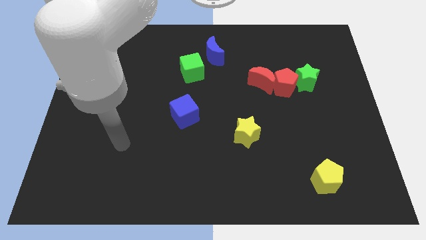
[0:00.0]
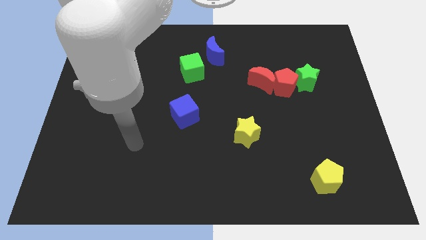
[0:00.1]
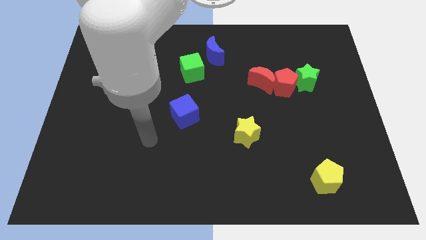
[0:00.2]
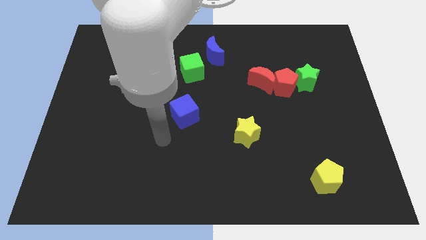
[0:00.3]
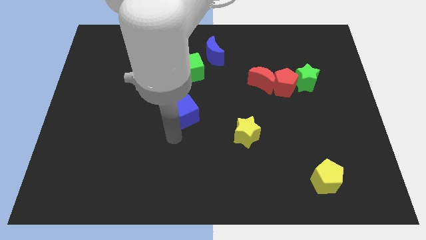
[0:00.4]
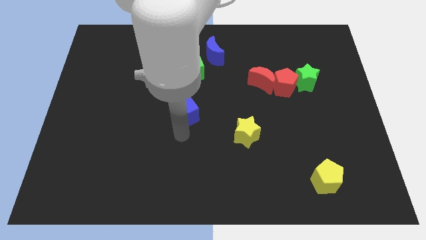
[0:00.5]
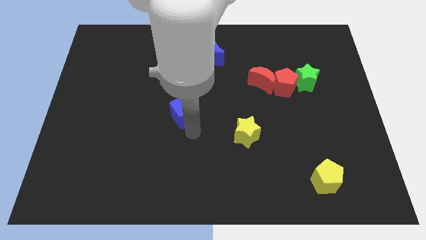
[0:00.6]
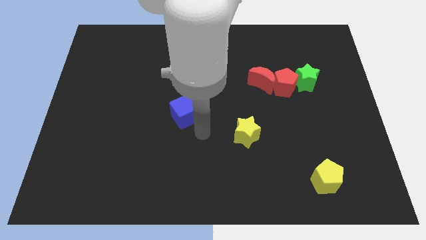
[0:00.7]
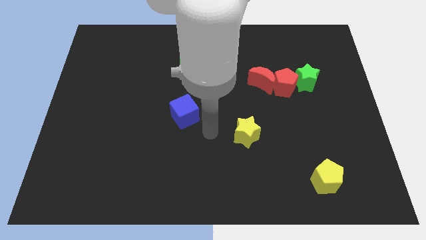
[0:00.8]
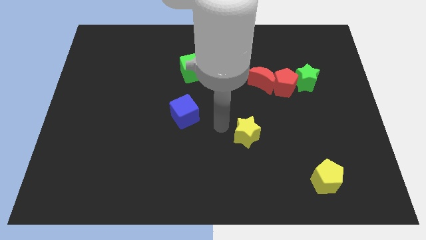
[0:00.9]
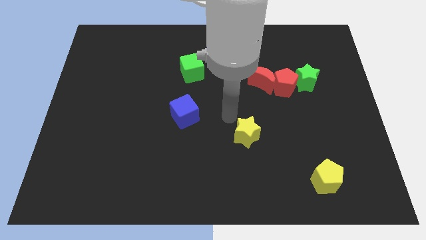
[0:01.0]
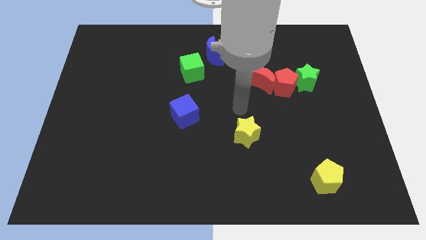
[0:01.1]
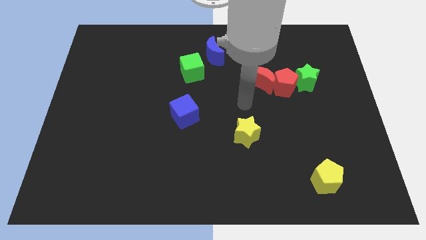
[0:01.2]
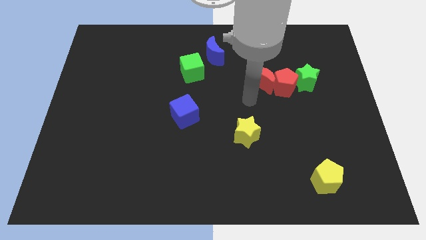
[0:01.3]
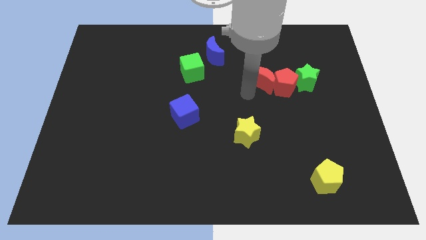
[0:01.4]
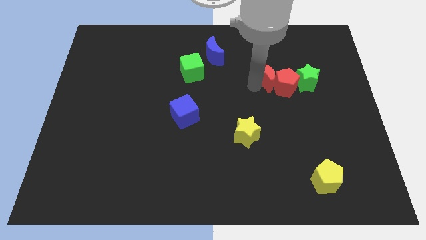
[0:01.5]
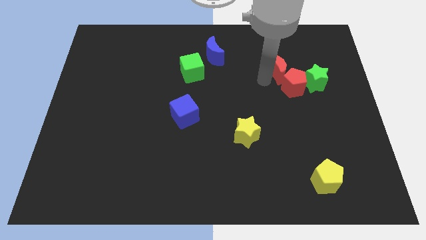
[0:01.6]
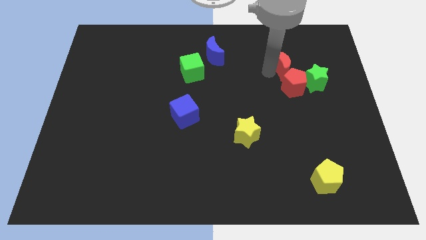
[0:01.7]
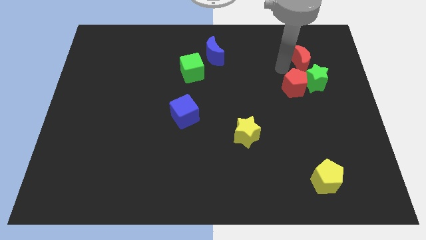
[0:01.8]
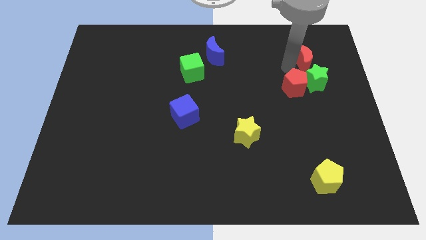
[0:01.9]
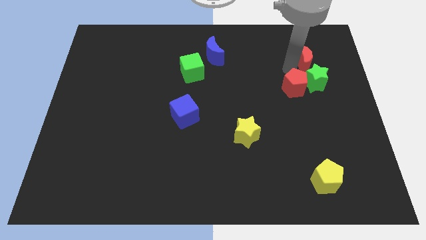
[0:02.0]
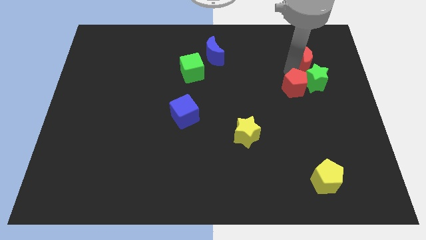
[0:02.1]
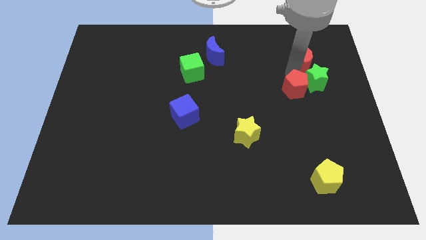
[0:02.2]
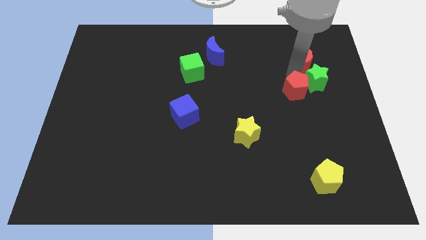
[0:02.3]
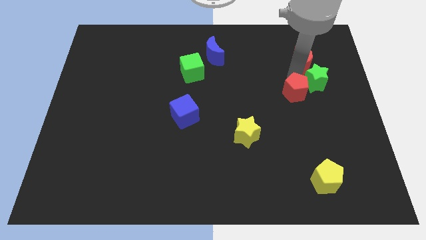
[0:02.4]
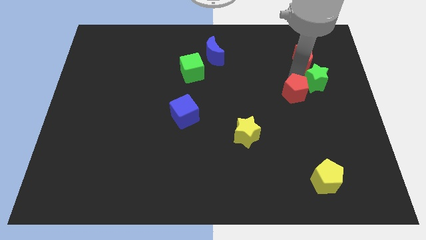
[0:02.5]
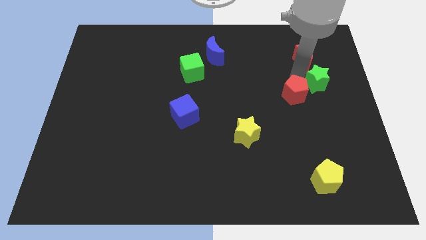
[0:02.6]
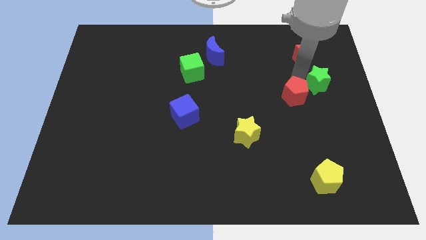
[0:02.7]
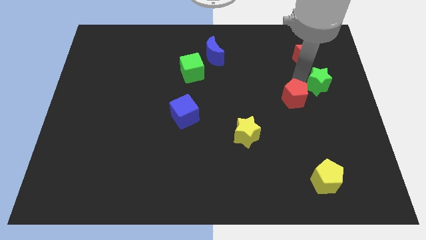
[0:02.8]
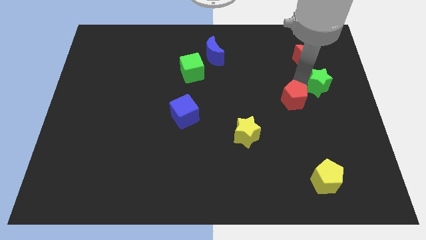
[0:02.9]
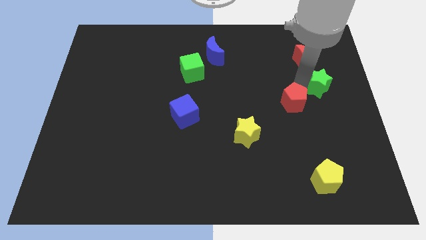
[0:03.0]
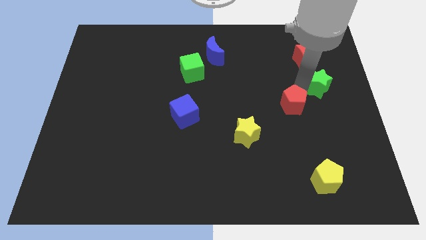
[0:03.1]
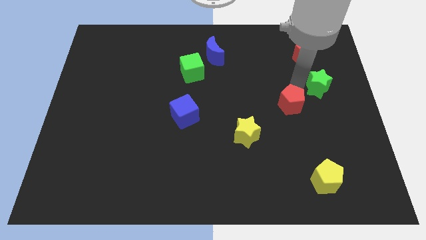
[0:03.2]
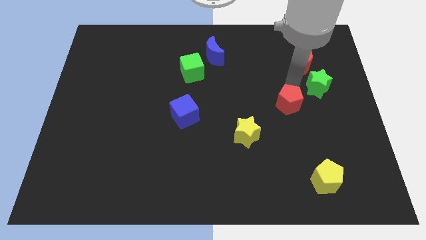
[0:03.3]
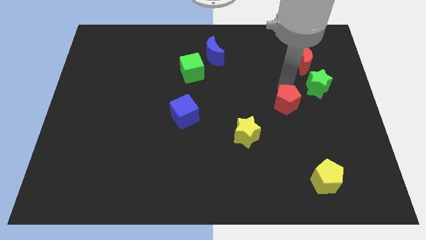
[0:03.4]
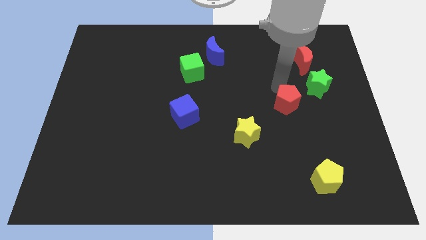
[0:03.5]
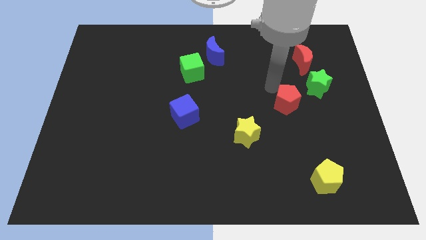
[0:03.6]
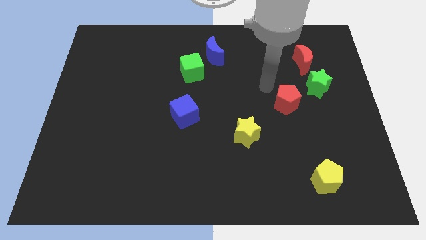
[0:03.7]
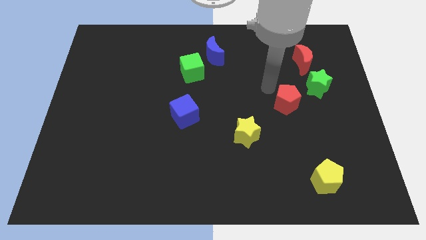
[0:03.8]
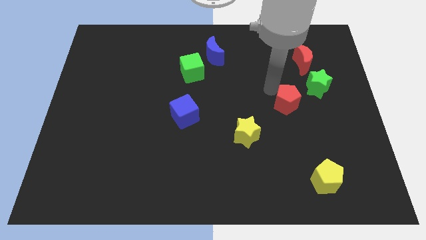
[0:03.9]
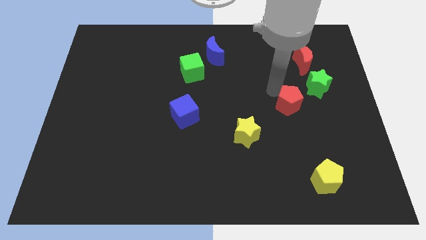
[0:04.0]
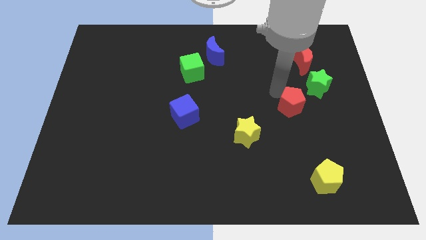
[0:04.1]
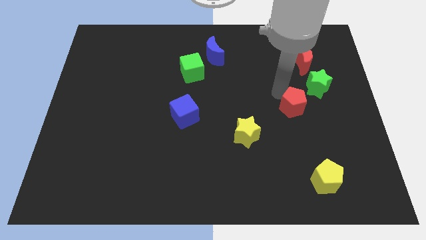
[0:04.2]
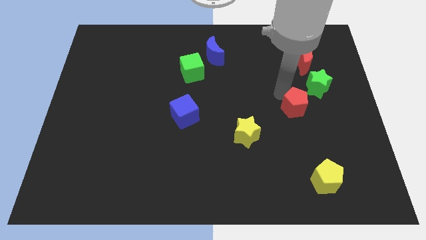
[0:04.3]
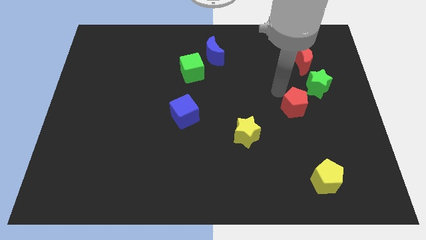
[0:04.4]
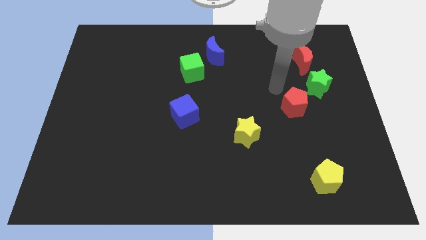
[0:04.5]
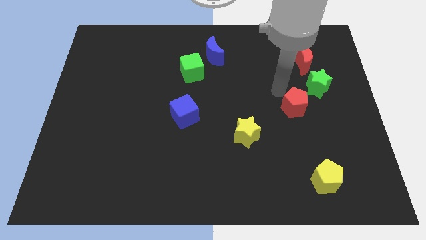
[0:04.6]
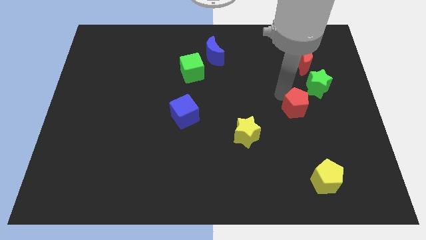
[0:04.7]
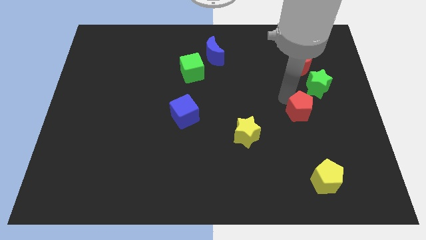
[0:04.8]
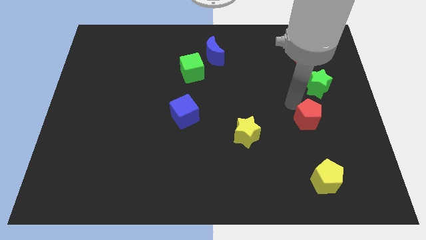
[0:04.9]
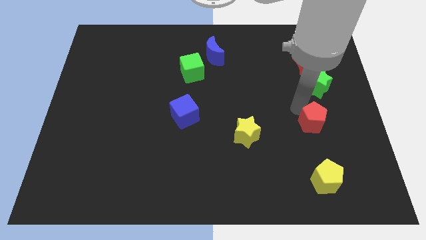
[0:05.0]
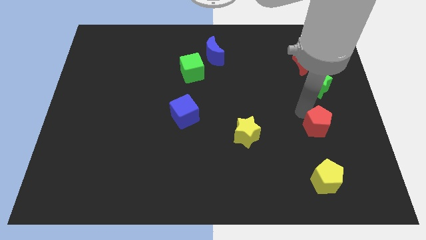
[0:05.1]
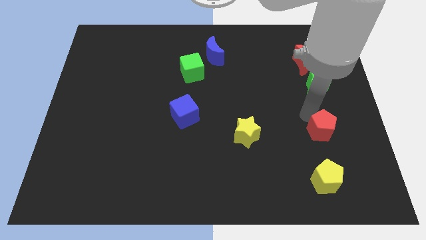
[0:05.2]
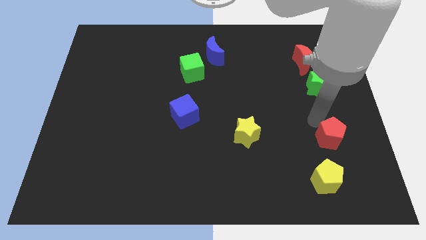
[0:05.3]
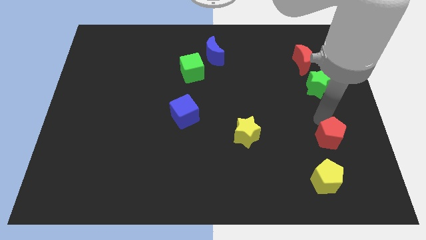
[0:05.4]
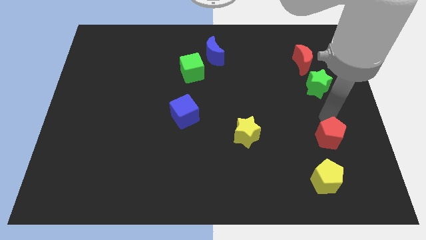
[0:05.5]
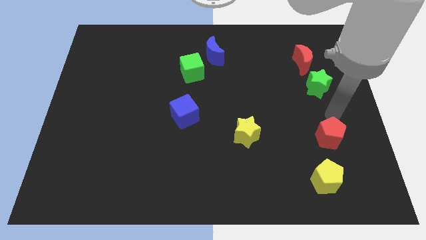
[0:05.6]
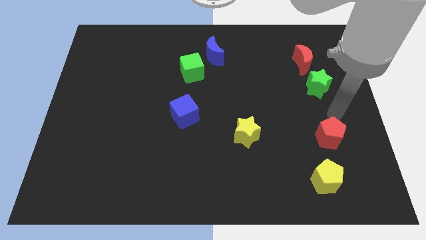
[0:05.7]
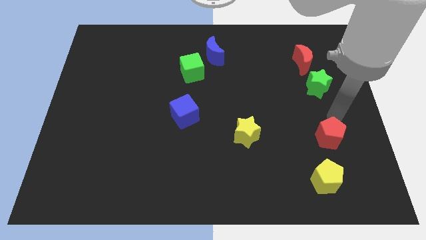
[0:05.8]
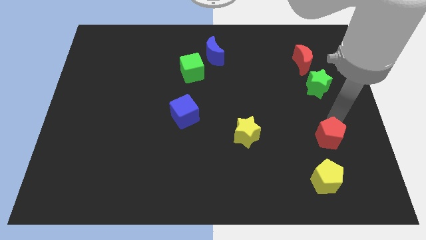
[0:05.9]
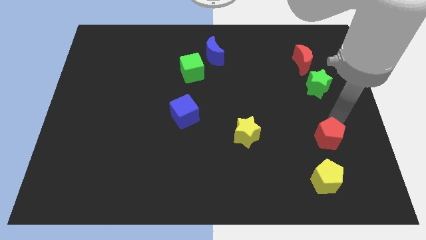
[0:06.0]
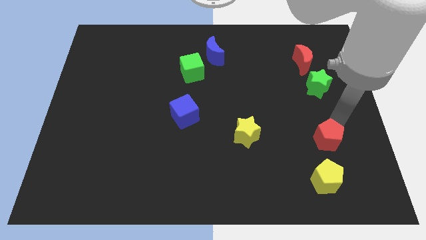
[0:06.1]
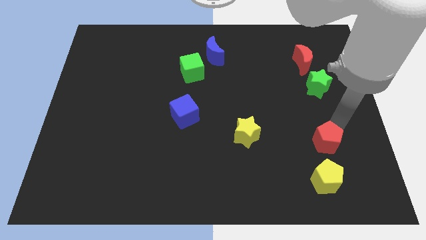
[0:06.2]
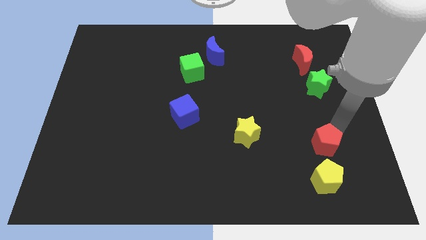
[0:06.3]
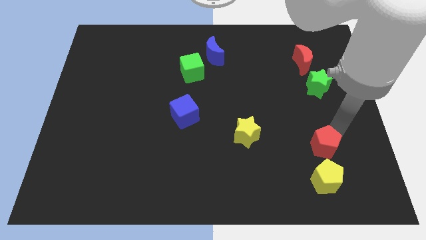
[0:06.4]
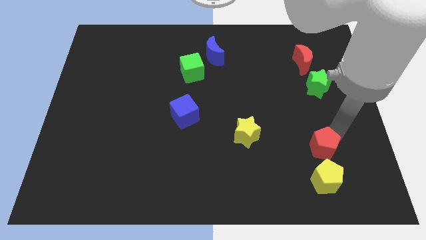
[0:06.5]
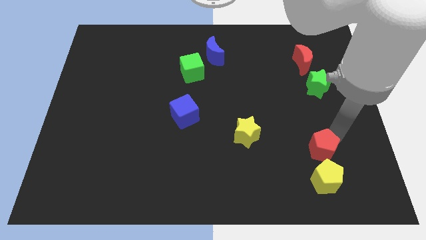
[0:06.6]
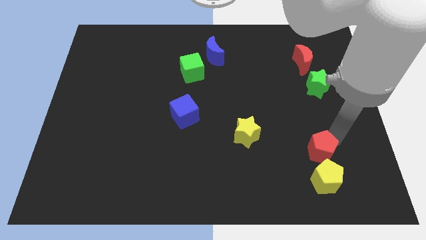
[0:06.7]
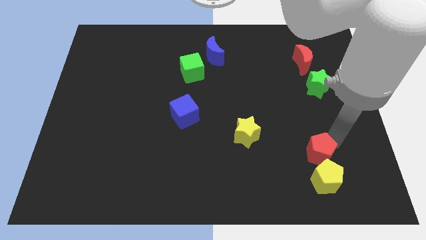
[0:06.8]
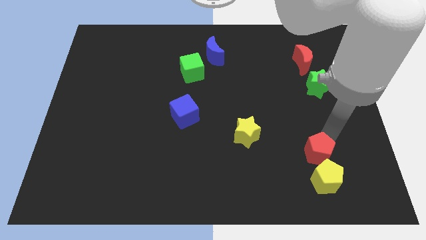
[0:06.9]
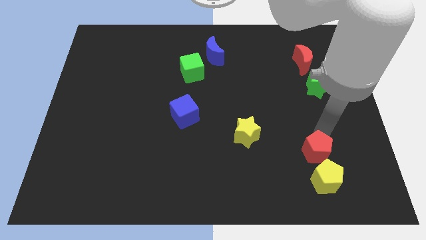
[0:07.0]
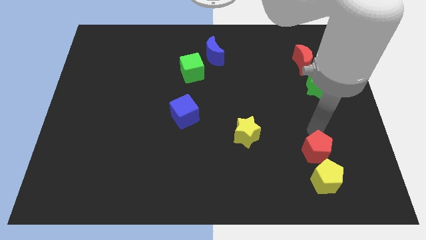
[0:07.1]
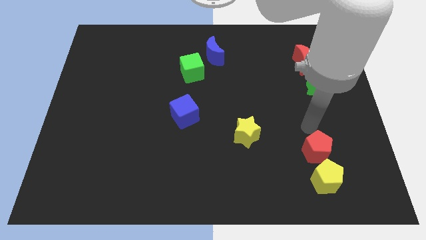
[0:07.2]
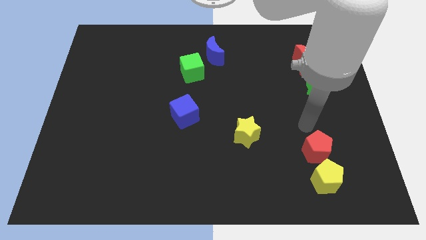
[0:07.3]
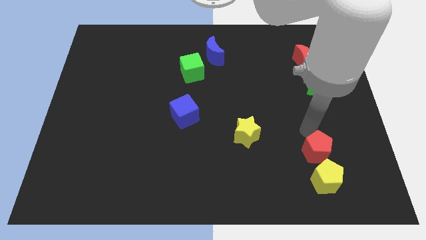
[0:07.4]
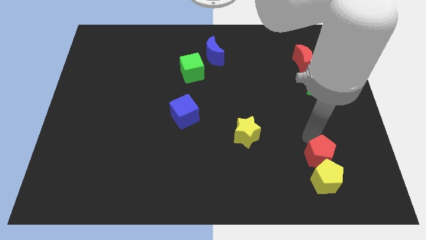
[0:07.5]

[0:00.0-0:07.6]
move the red pentagon towards the yellow pentagon
